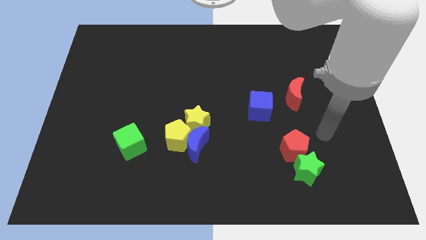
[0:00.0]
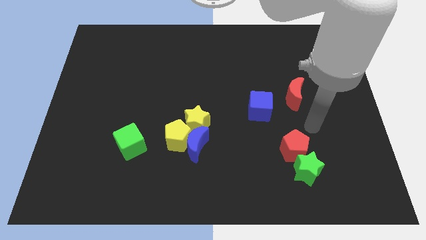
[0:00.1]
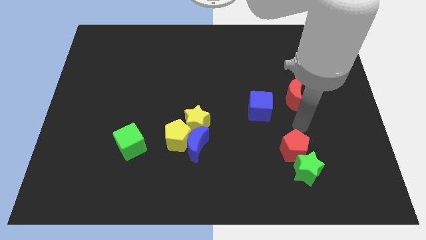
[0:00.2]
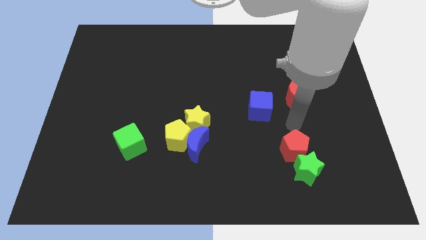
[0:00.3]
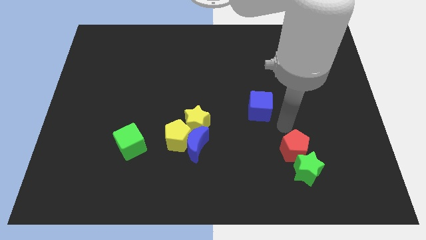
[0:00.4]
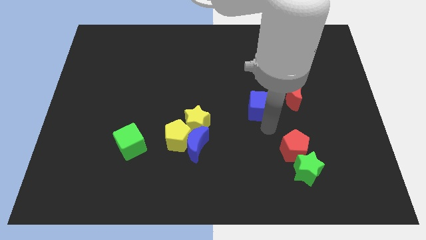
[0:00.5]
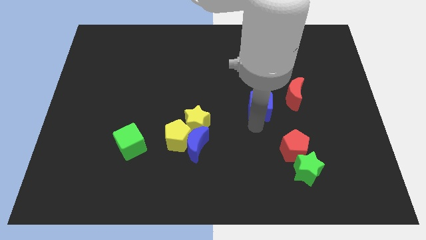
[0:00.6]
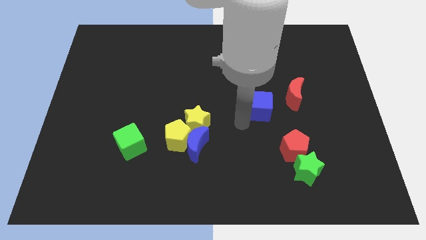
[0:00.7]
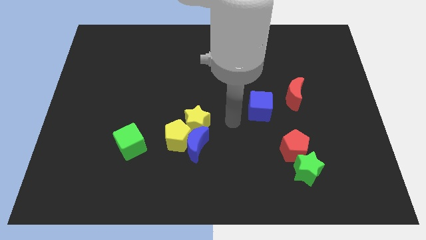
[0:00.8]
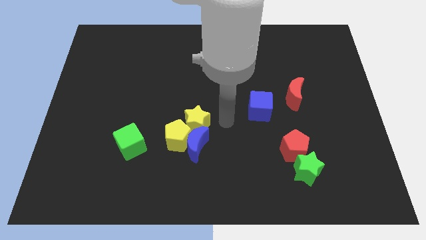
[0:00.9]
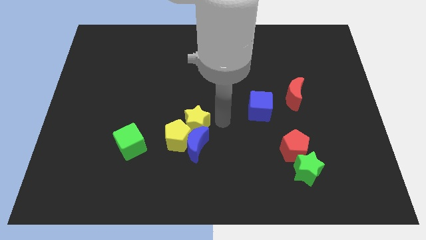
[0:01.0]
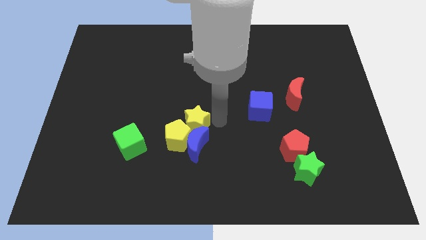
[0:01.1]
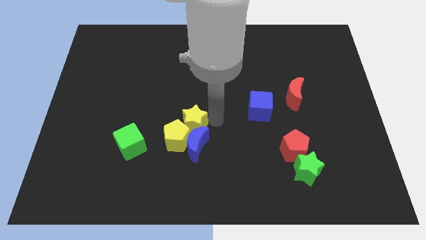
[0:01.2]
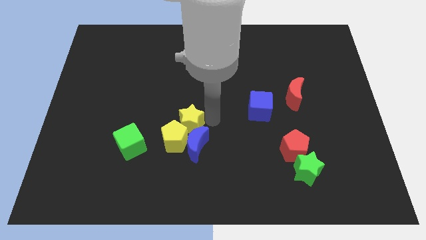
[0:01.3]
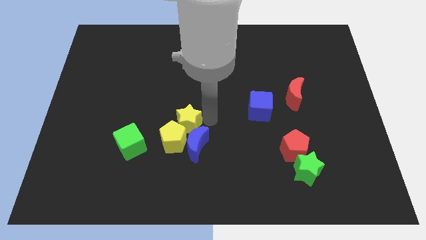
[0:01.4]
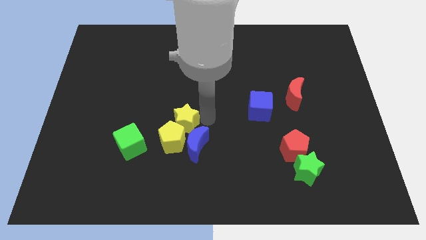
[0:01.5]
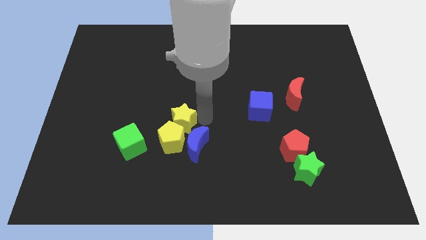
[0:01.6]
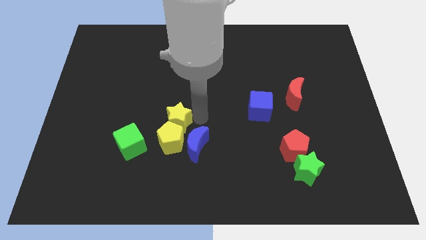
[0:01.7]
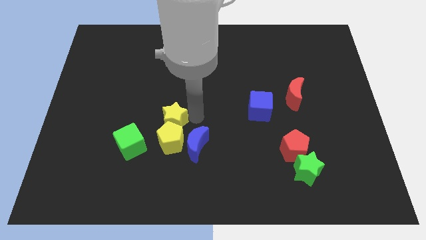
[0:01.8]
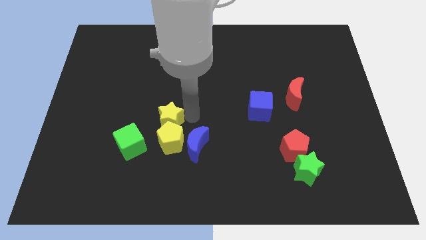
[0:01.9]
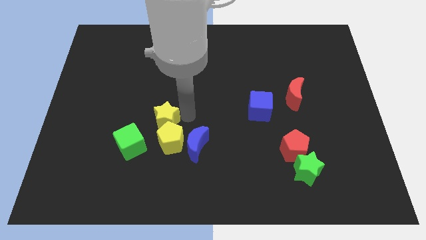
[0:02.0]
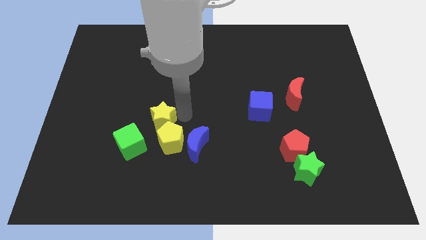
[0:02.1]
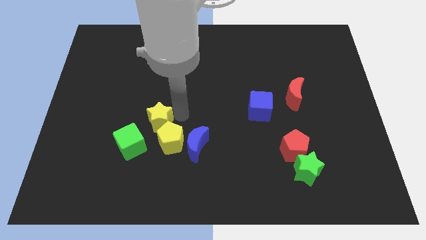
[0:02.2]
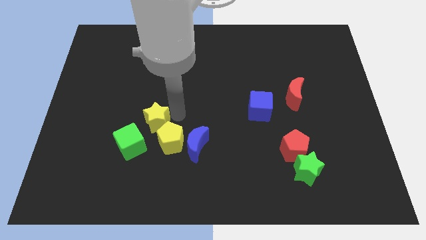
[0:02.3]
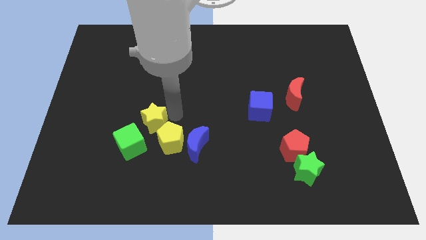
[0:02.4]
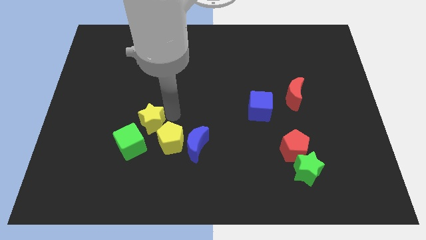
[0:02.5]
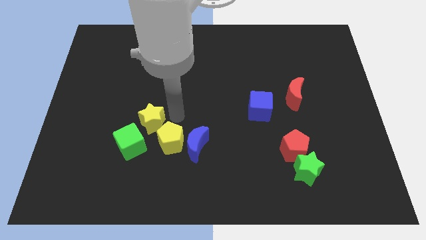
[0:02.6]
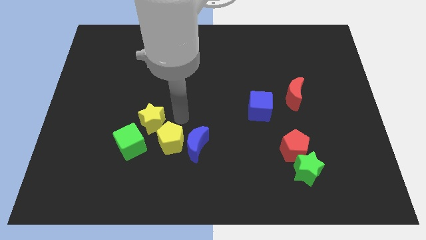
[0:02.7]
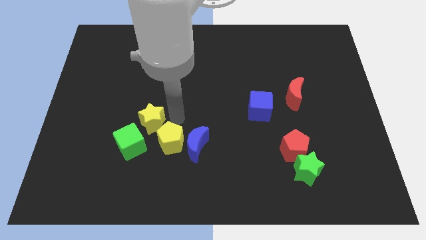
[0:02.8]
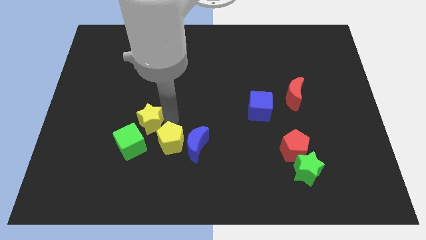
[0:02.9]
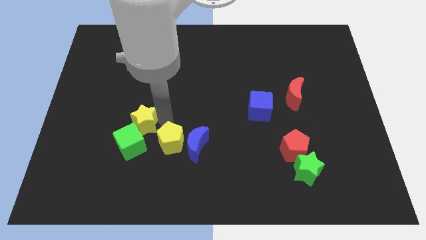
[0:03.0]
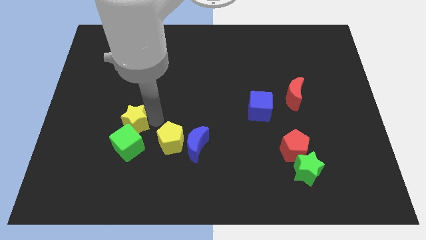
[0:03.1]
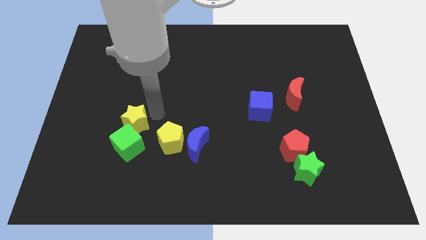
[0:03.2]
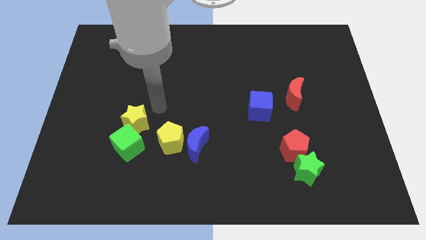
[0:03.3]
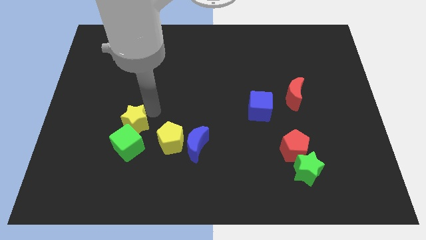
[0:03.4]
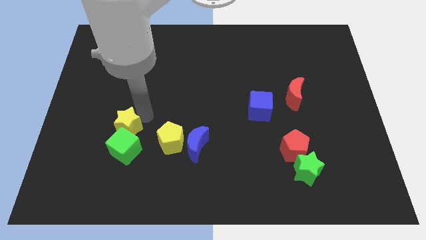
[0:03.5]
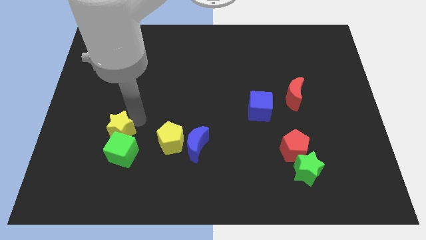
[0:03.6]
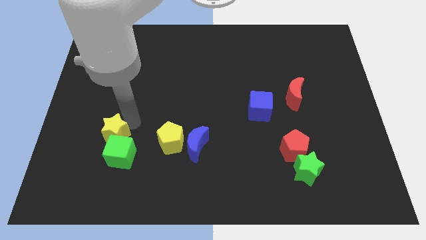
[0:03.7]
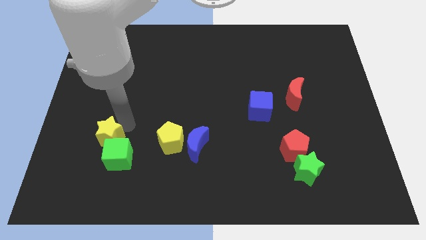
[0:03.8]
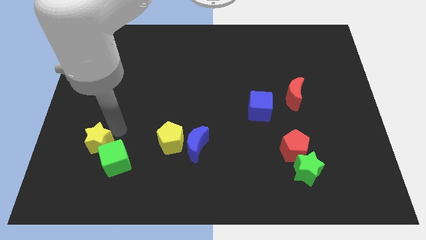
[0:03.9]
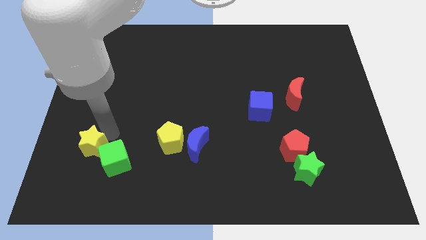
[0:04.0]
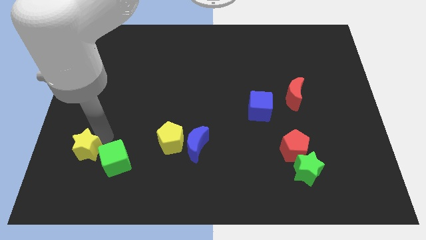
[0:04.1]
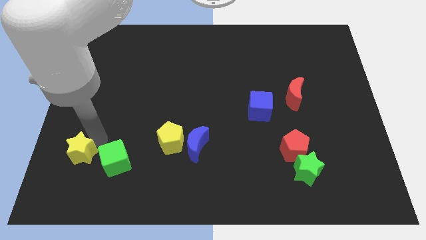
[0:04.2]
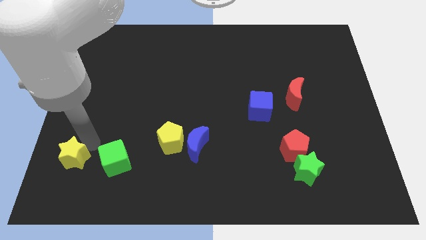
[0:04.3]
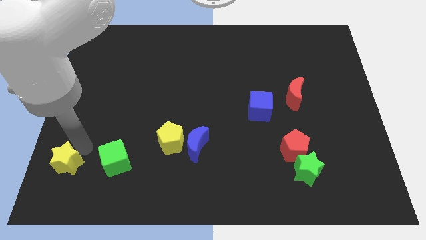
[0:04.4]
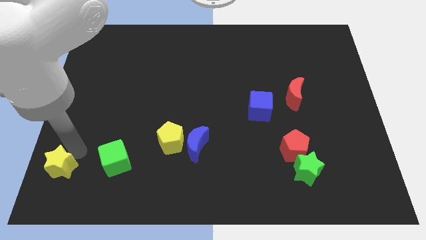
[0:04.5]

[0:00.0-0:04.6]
put the yellow star to the bottom left corner

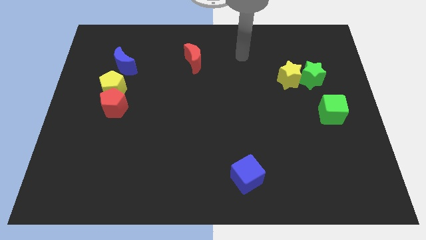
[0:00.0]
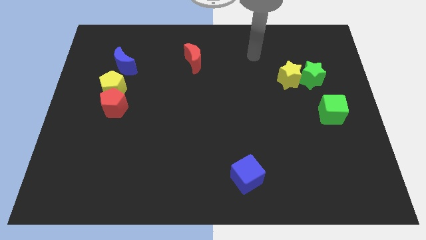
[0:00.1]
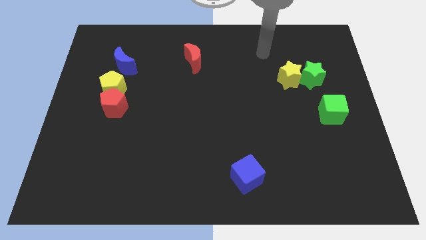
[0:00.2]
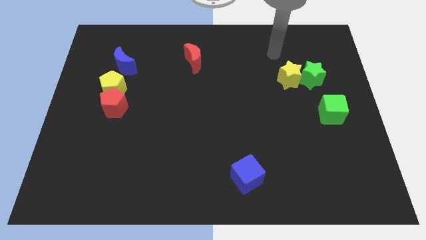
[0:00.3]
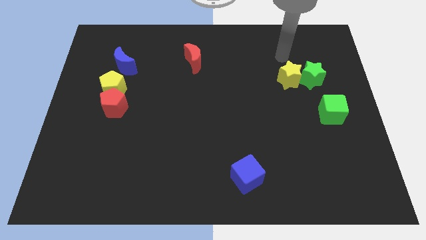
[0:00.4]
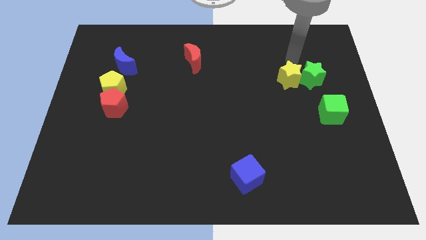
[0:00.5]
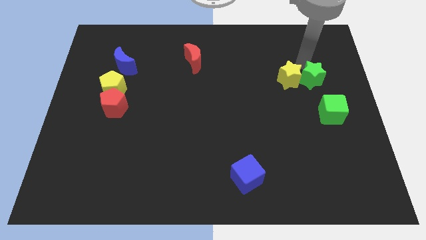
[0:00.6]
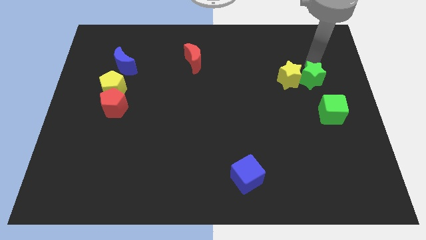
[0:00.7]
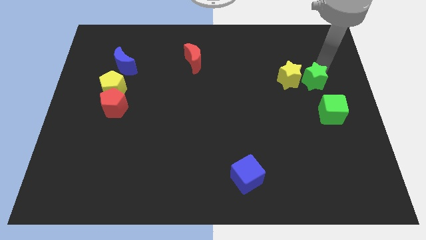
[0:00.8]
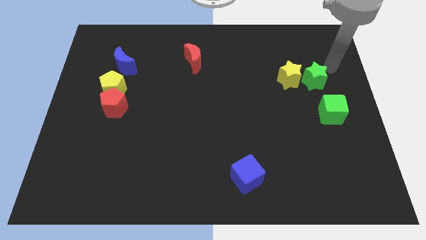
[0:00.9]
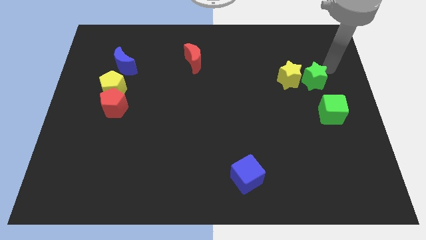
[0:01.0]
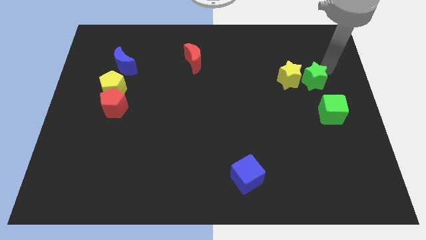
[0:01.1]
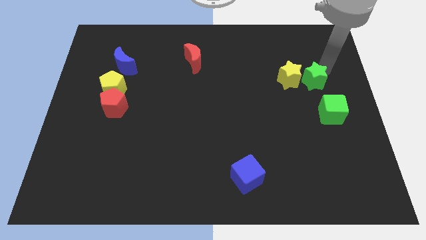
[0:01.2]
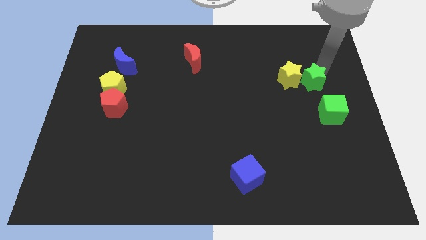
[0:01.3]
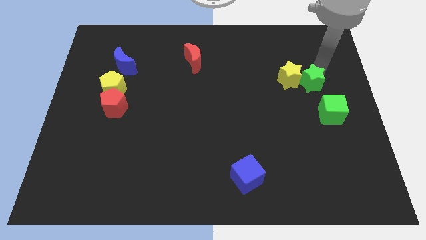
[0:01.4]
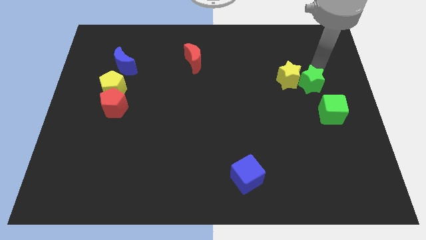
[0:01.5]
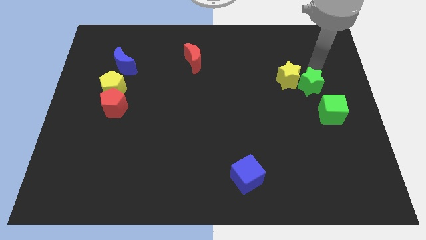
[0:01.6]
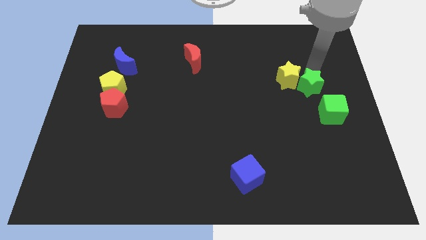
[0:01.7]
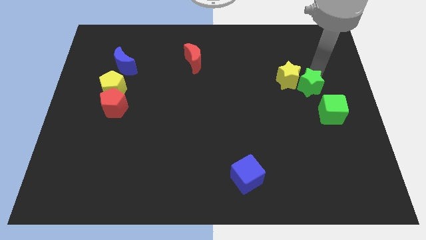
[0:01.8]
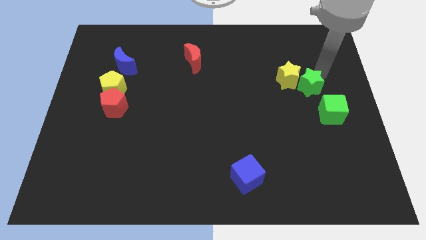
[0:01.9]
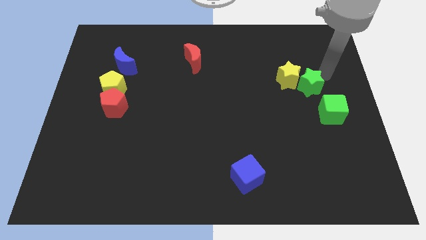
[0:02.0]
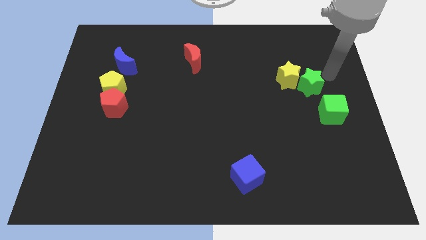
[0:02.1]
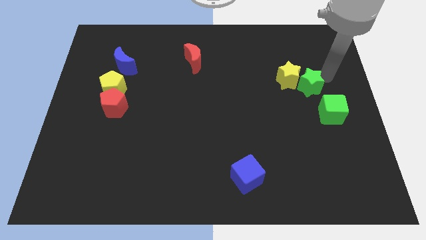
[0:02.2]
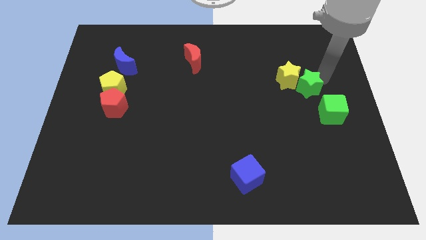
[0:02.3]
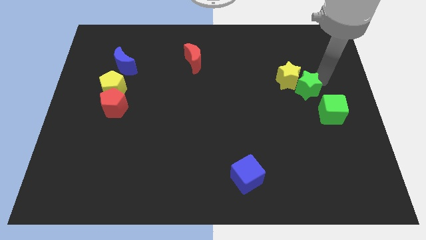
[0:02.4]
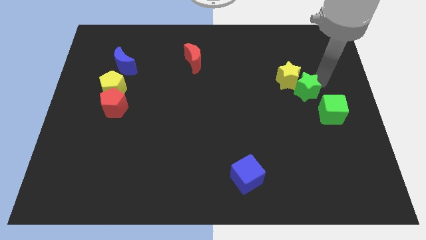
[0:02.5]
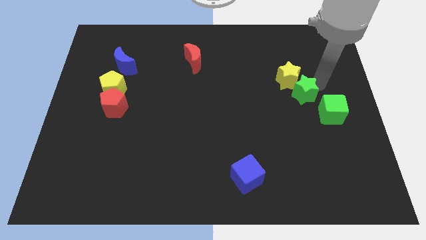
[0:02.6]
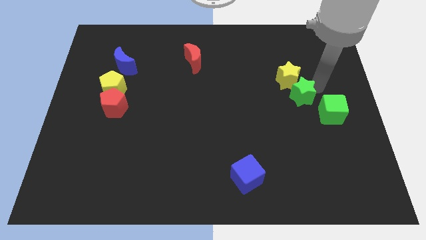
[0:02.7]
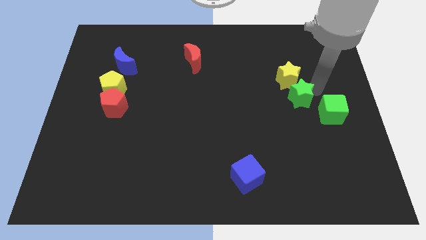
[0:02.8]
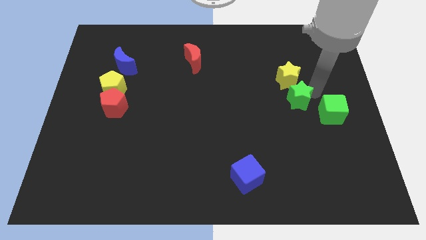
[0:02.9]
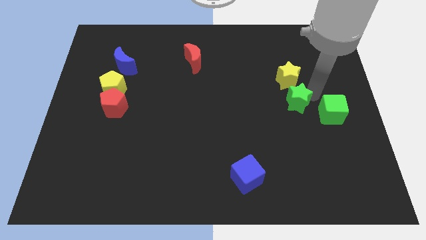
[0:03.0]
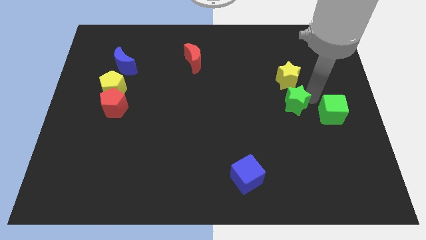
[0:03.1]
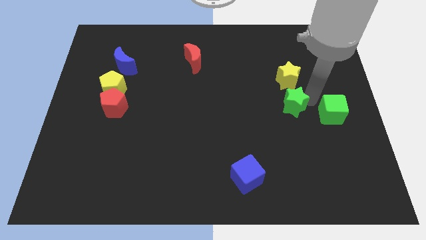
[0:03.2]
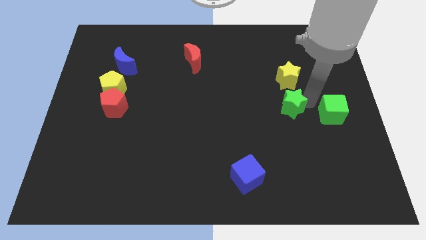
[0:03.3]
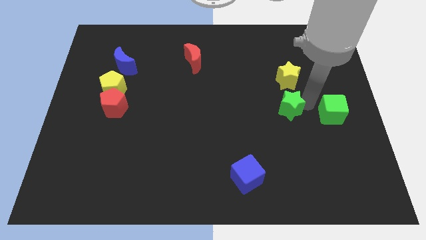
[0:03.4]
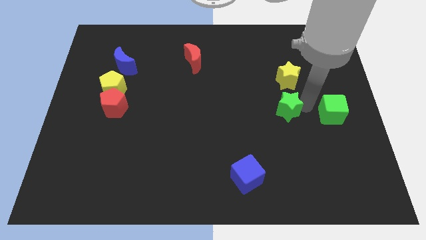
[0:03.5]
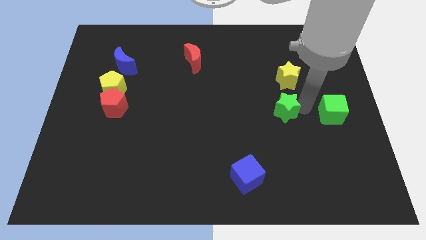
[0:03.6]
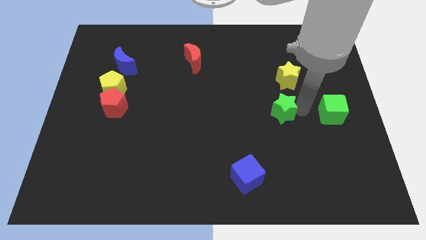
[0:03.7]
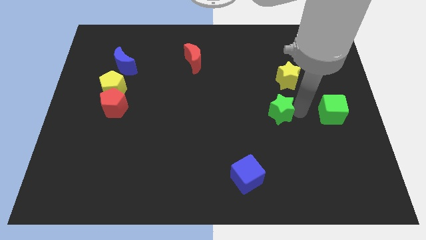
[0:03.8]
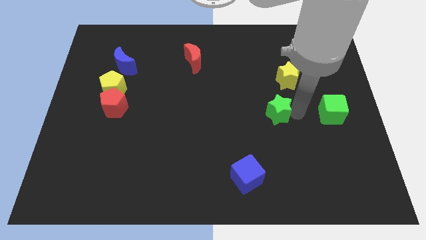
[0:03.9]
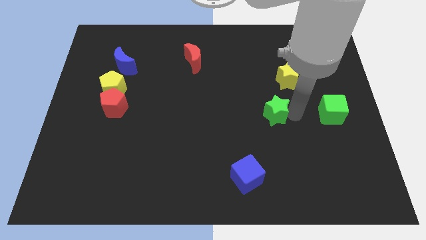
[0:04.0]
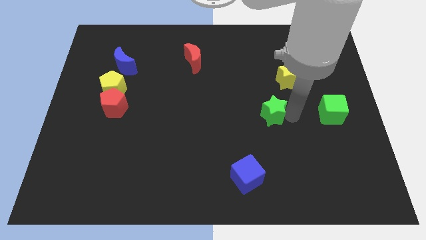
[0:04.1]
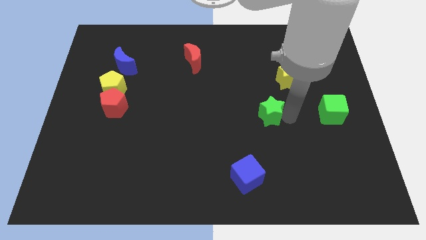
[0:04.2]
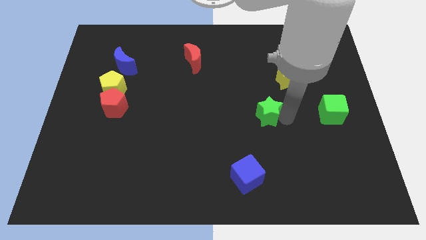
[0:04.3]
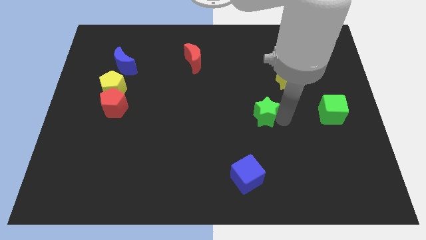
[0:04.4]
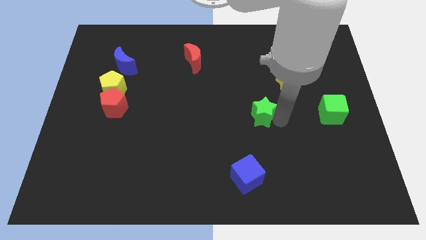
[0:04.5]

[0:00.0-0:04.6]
slide the green star to the center
